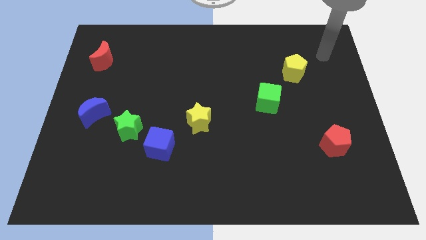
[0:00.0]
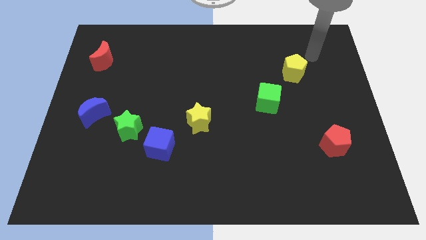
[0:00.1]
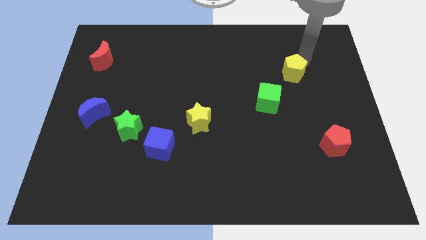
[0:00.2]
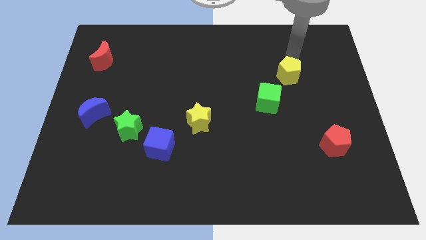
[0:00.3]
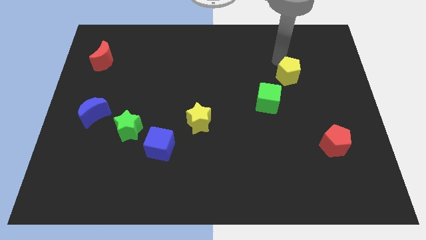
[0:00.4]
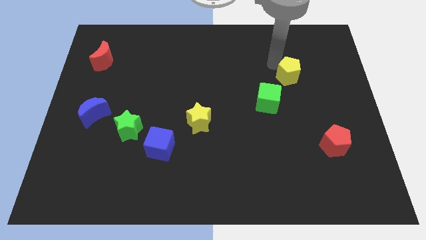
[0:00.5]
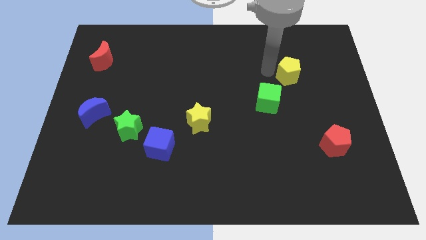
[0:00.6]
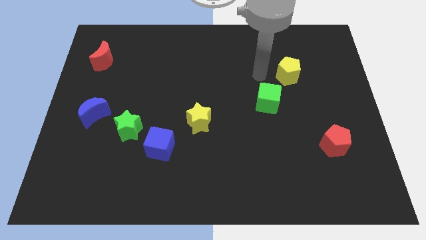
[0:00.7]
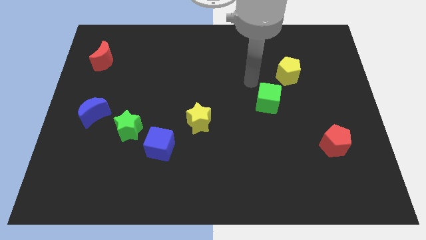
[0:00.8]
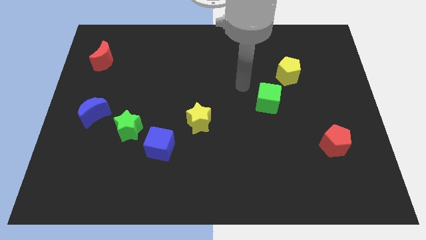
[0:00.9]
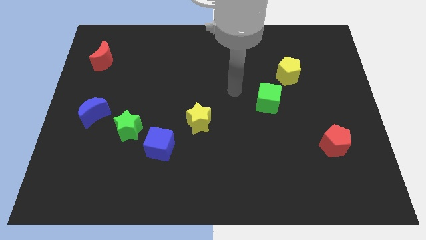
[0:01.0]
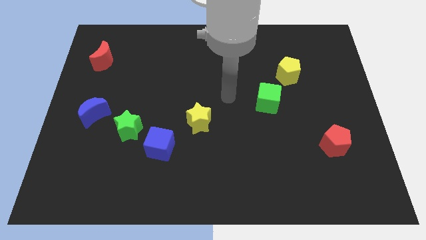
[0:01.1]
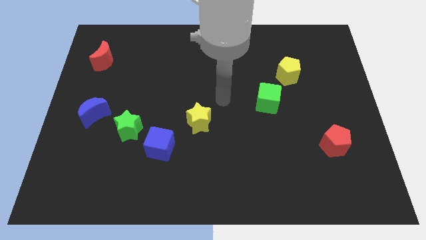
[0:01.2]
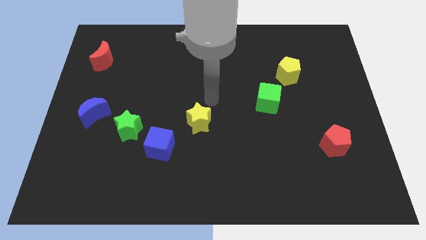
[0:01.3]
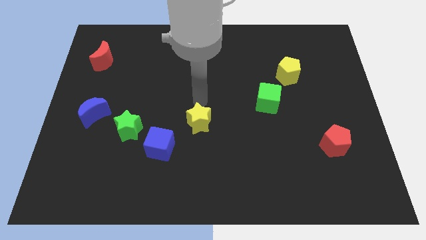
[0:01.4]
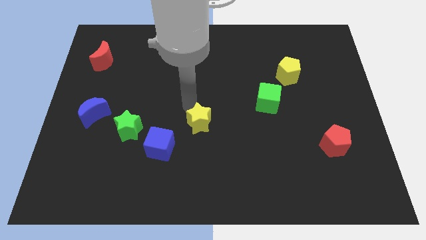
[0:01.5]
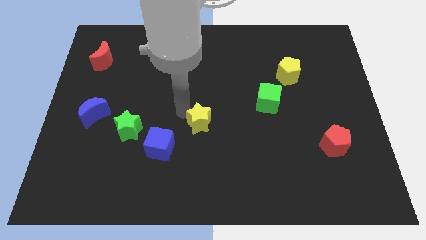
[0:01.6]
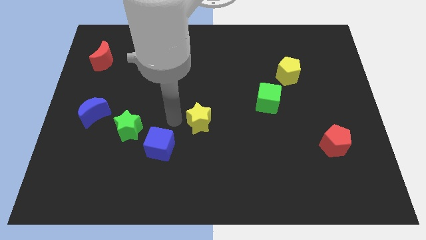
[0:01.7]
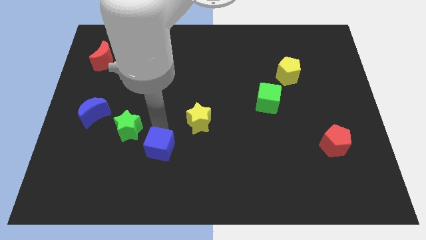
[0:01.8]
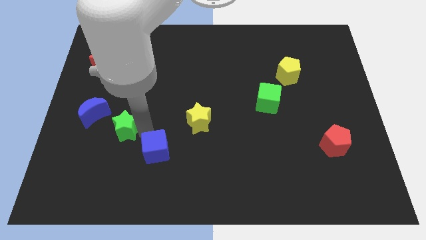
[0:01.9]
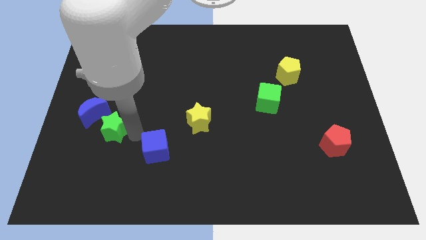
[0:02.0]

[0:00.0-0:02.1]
move the blue cube away from the green star

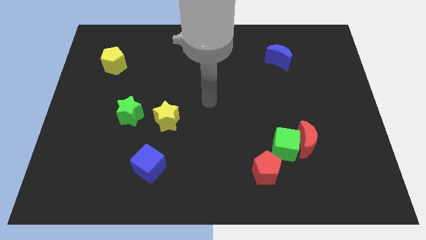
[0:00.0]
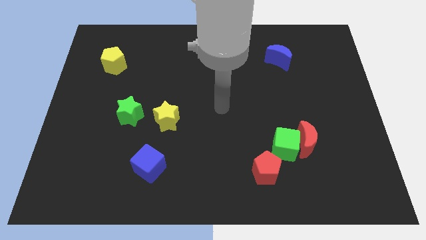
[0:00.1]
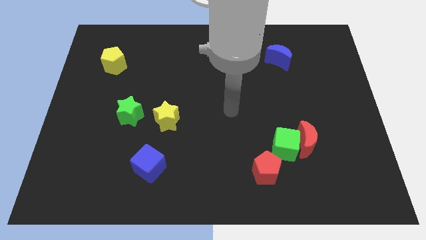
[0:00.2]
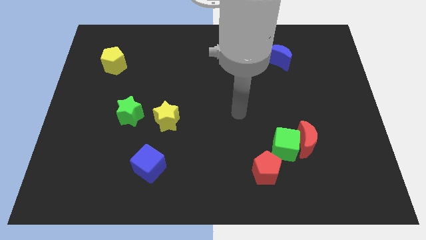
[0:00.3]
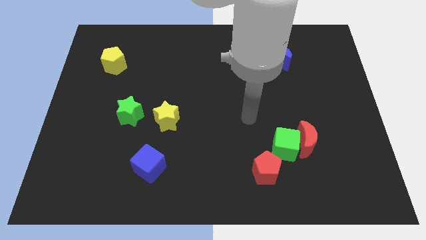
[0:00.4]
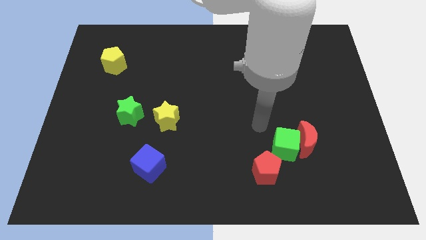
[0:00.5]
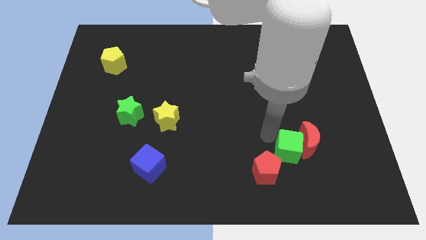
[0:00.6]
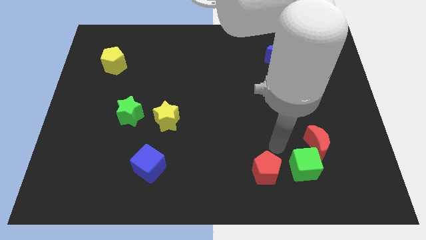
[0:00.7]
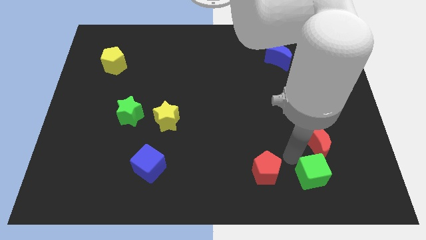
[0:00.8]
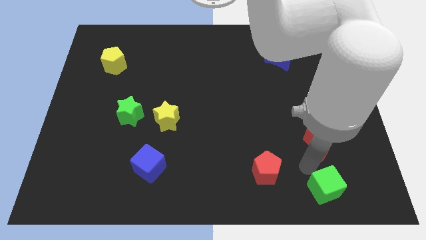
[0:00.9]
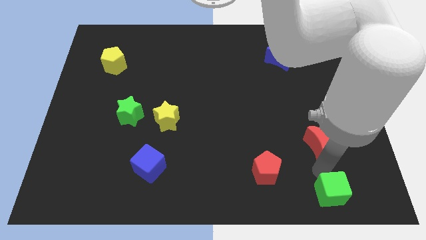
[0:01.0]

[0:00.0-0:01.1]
pull the red moon apart from the green cube

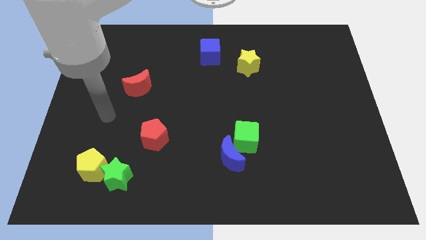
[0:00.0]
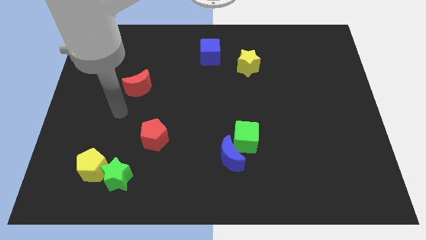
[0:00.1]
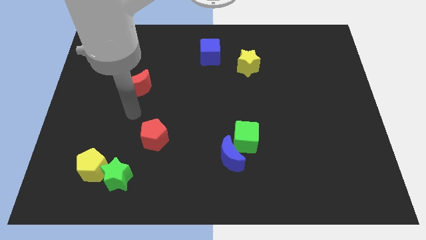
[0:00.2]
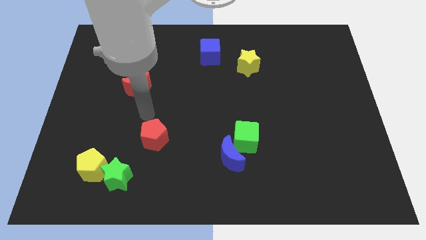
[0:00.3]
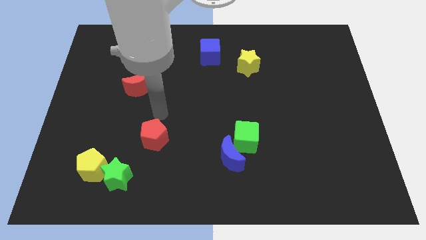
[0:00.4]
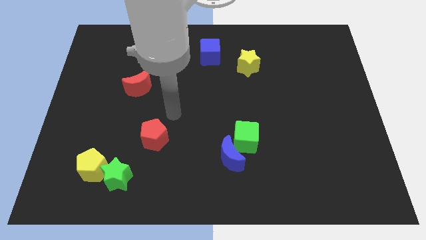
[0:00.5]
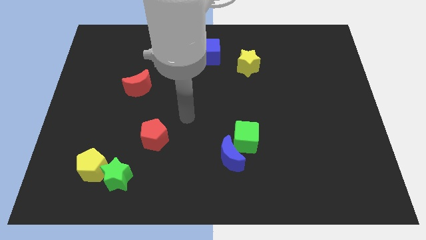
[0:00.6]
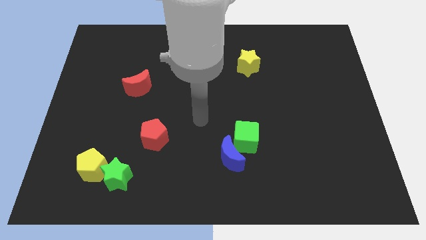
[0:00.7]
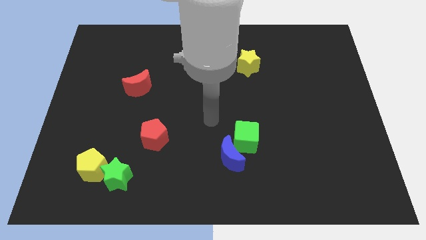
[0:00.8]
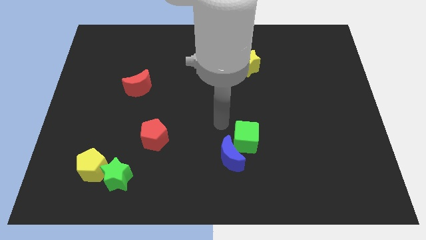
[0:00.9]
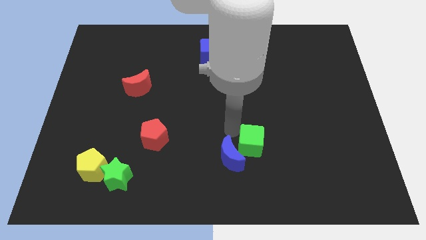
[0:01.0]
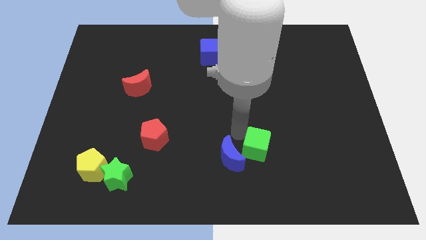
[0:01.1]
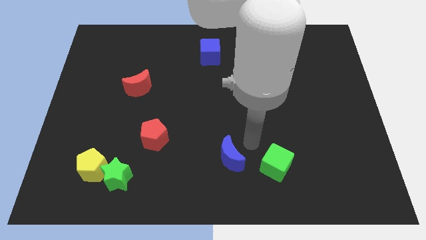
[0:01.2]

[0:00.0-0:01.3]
pull the blue moon apart from the green cube

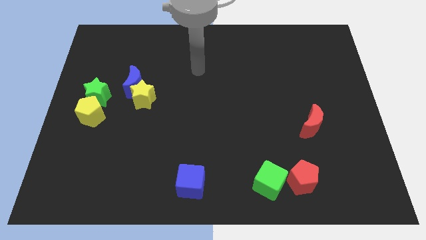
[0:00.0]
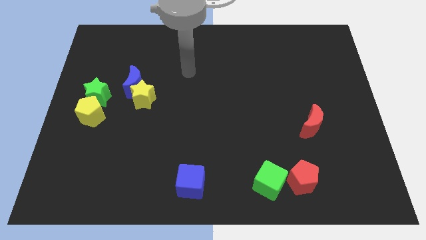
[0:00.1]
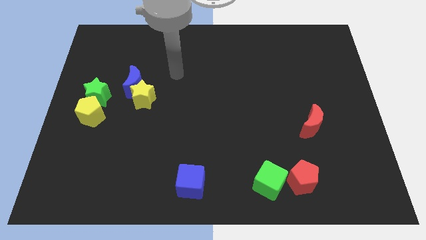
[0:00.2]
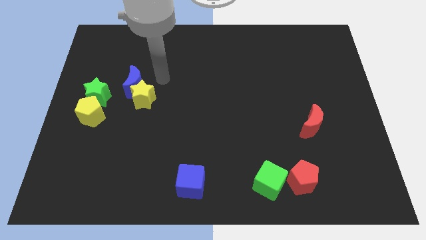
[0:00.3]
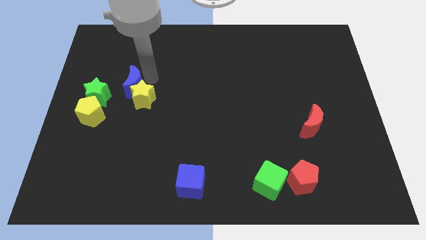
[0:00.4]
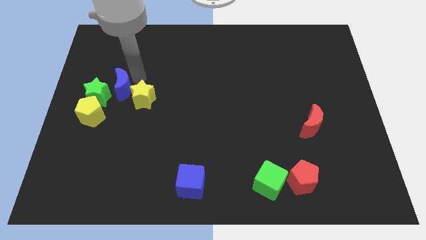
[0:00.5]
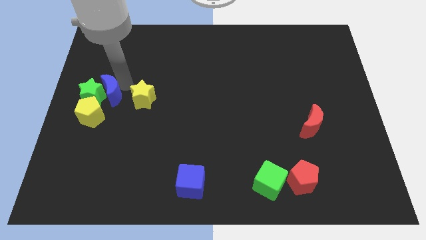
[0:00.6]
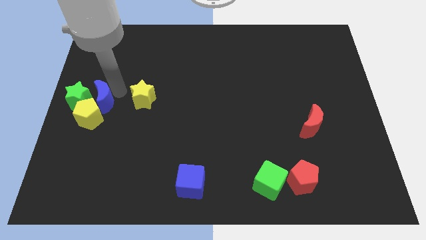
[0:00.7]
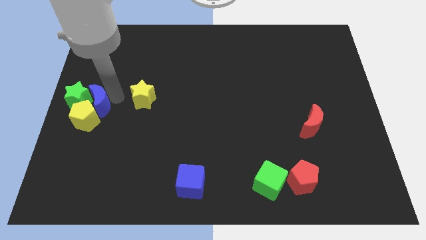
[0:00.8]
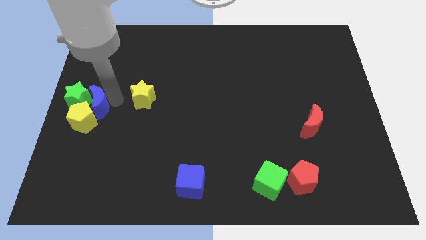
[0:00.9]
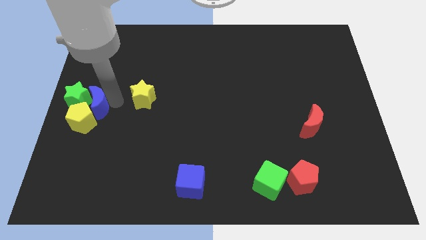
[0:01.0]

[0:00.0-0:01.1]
separate the yellow star from the blue moon

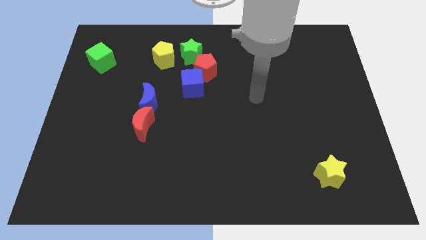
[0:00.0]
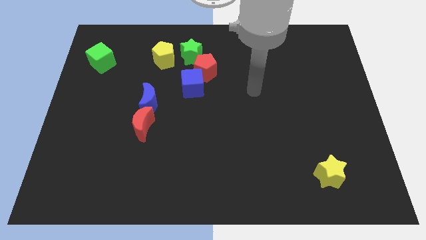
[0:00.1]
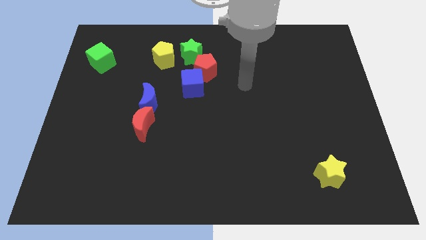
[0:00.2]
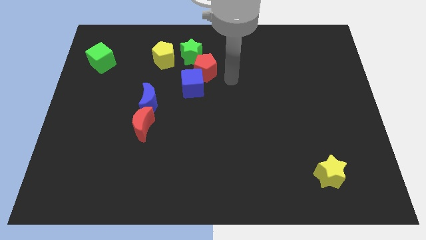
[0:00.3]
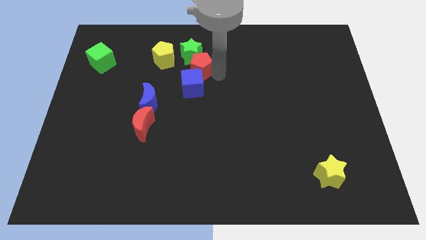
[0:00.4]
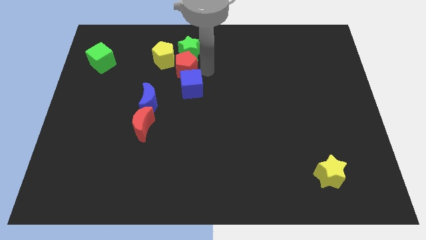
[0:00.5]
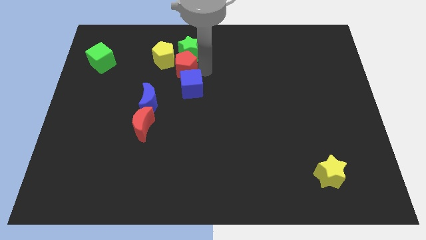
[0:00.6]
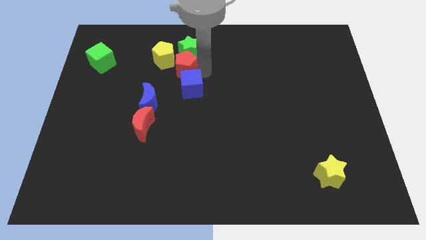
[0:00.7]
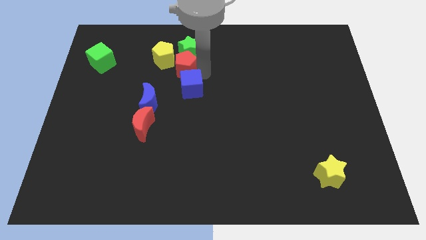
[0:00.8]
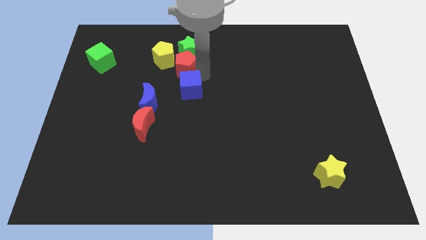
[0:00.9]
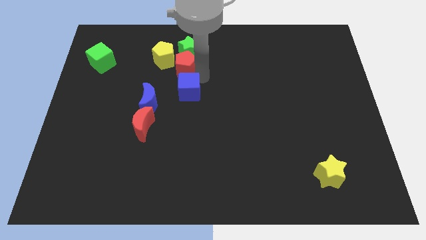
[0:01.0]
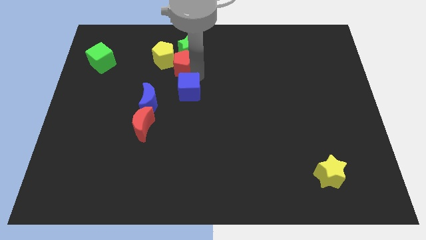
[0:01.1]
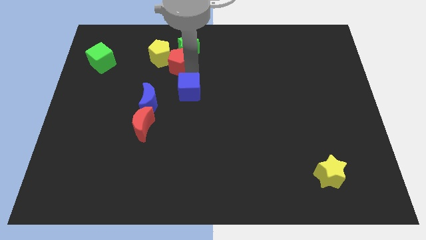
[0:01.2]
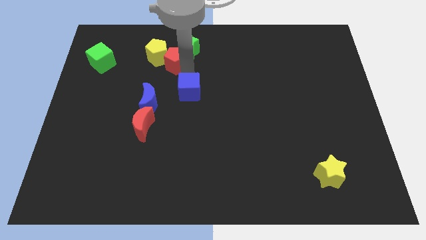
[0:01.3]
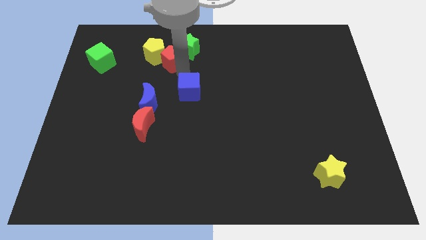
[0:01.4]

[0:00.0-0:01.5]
pull the blue cube apart from the red pentagon

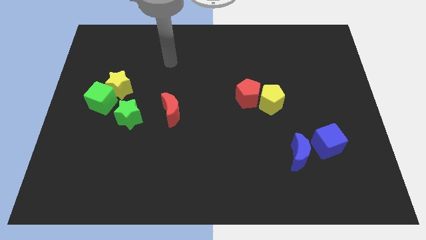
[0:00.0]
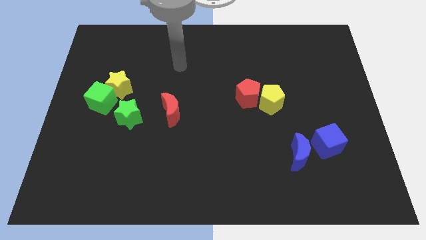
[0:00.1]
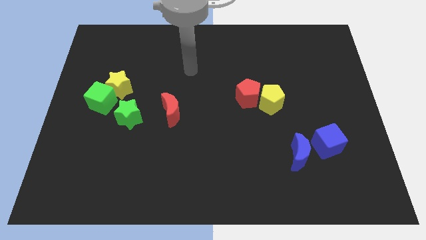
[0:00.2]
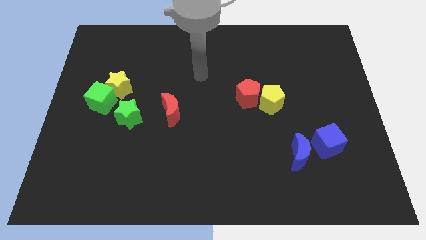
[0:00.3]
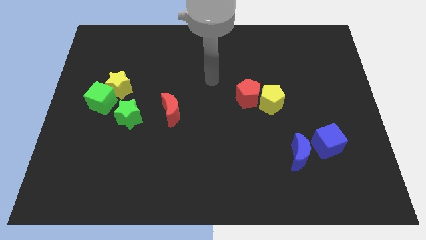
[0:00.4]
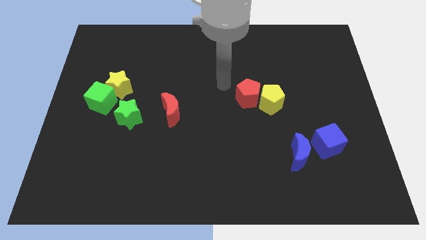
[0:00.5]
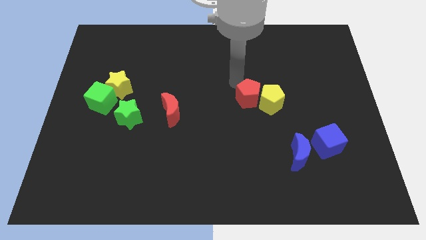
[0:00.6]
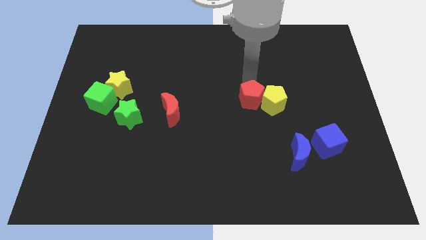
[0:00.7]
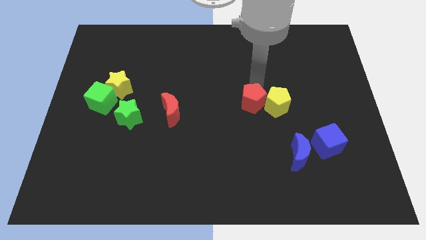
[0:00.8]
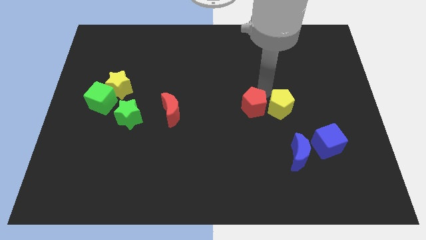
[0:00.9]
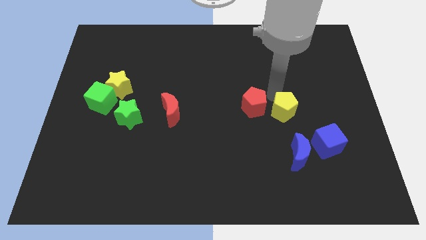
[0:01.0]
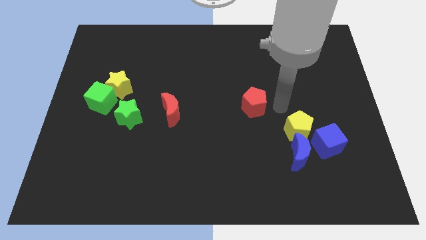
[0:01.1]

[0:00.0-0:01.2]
pull the red pentagon apart from the yellow pentagon

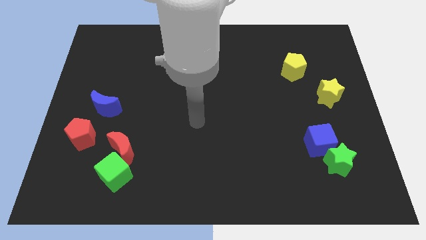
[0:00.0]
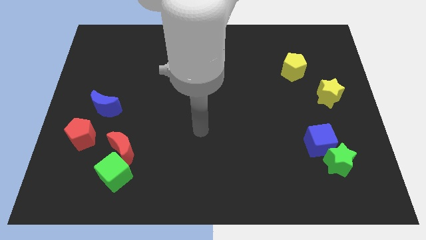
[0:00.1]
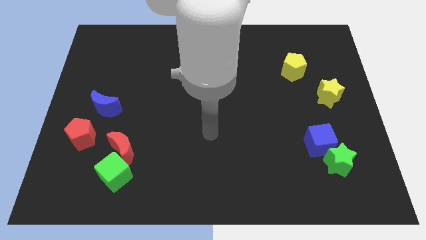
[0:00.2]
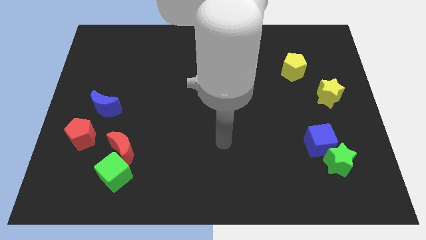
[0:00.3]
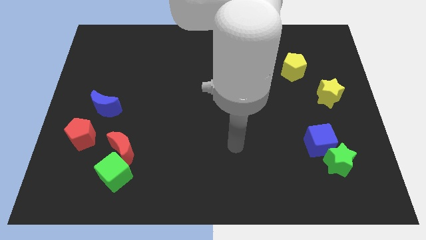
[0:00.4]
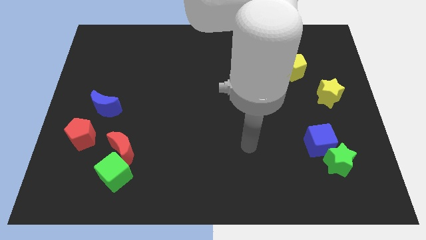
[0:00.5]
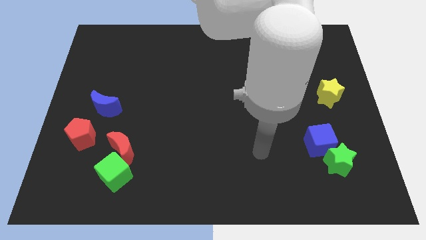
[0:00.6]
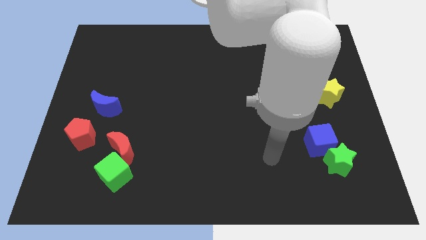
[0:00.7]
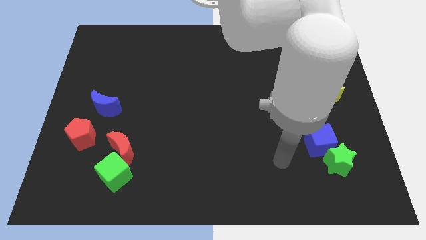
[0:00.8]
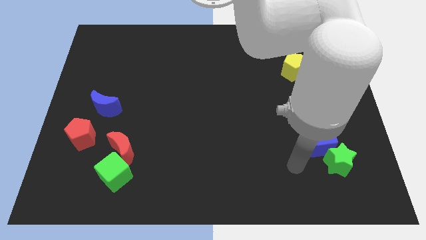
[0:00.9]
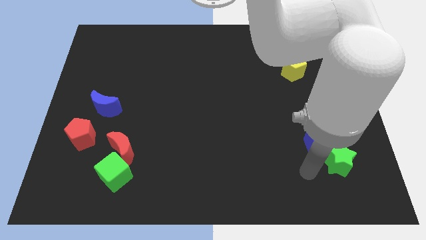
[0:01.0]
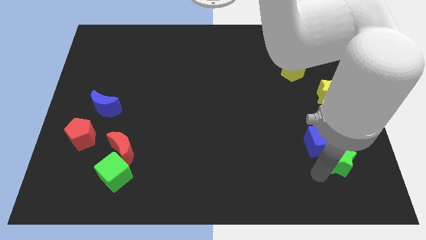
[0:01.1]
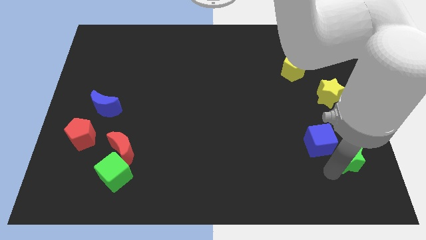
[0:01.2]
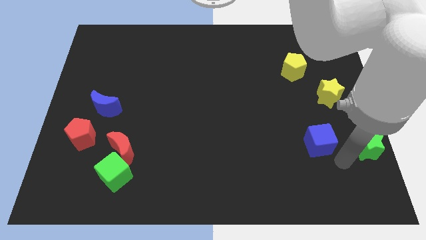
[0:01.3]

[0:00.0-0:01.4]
pull the blue cube apart from the green star
